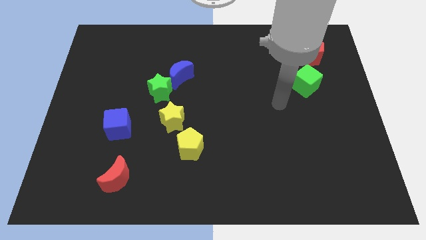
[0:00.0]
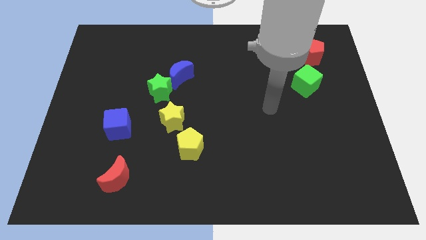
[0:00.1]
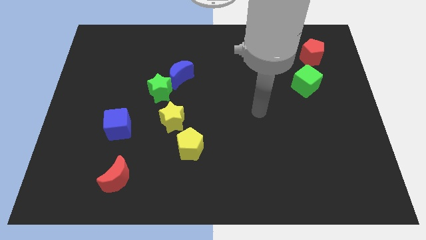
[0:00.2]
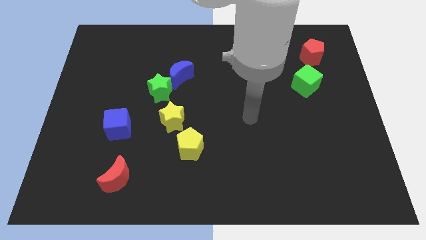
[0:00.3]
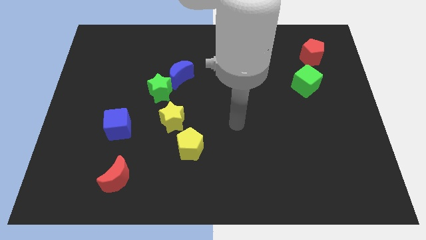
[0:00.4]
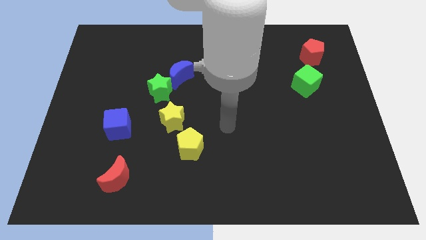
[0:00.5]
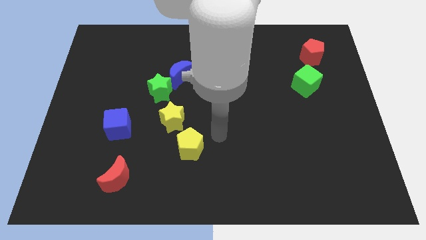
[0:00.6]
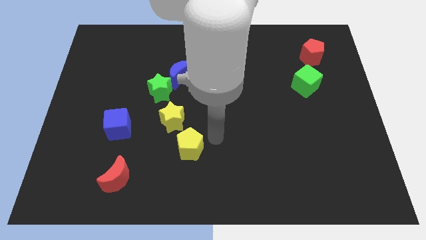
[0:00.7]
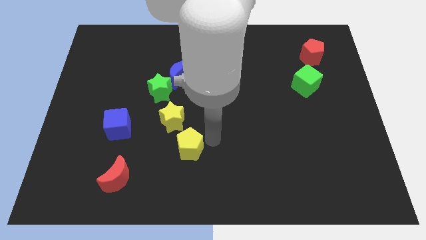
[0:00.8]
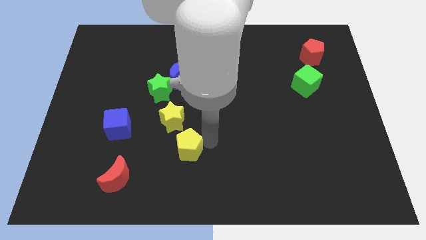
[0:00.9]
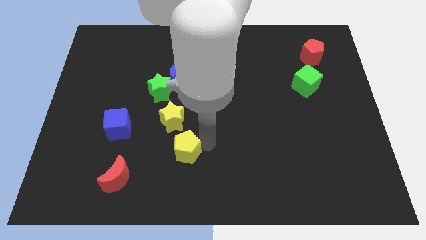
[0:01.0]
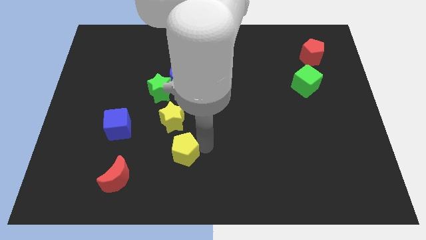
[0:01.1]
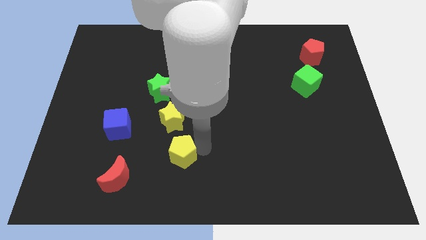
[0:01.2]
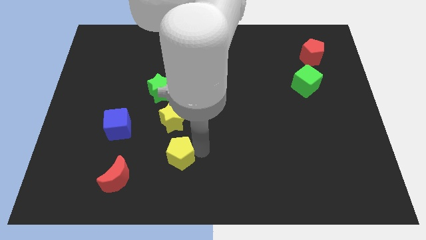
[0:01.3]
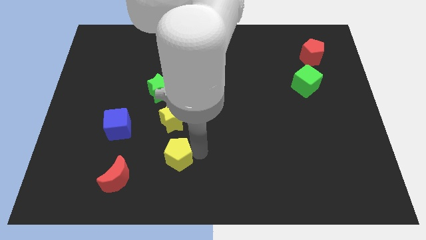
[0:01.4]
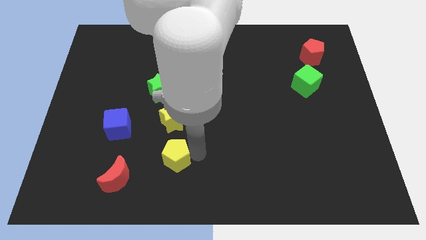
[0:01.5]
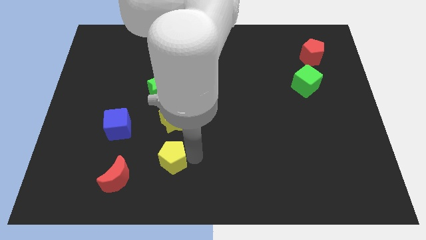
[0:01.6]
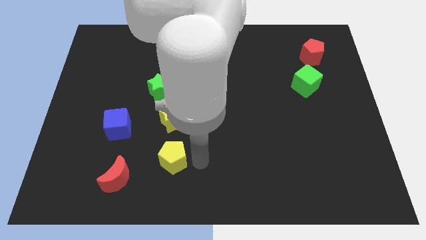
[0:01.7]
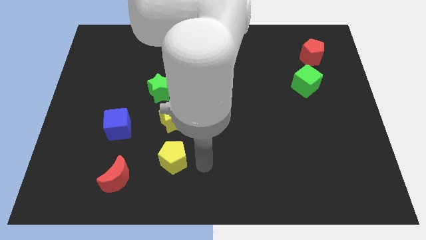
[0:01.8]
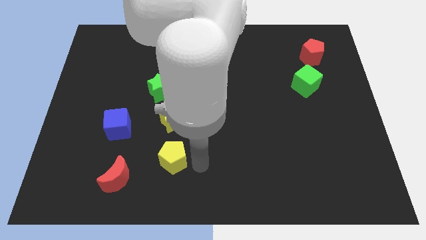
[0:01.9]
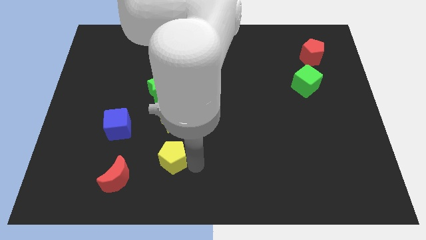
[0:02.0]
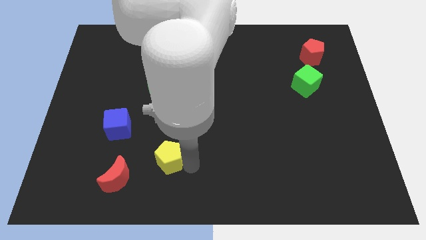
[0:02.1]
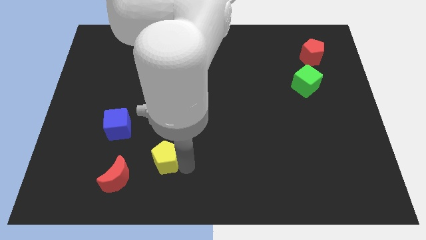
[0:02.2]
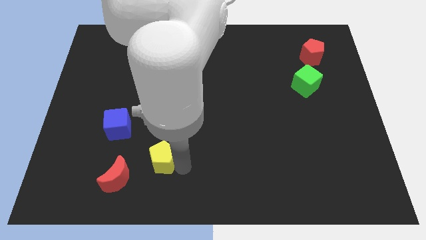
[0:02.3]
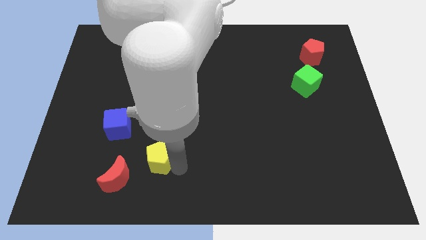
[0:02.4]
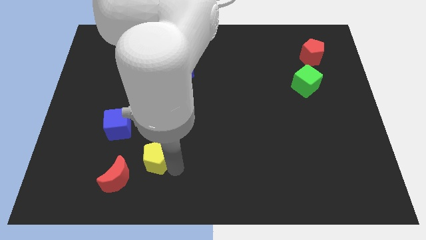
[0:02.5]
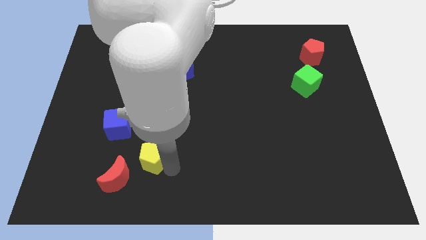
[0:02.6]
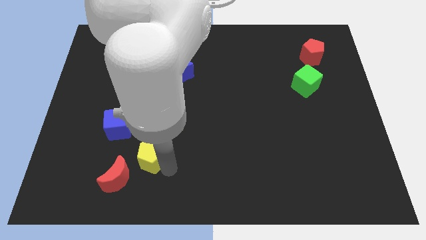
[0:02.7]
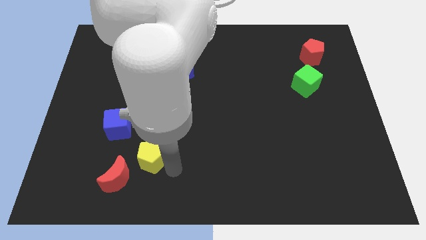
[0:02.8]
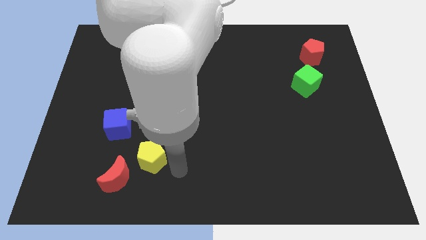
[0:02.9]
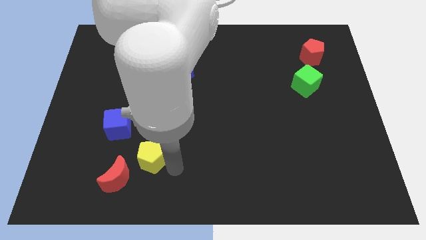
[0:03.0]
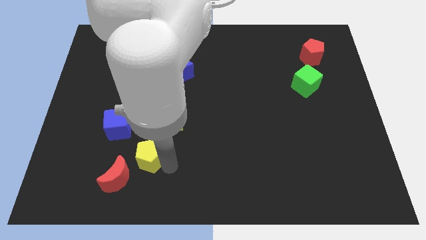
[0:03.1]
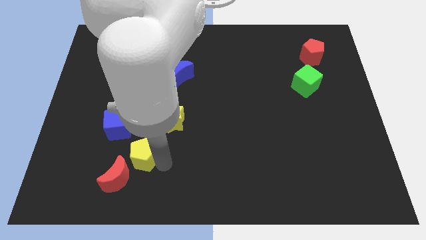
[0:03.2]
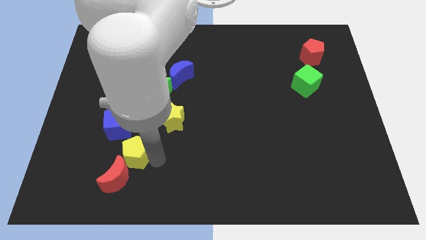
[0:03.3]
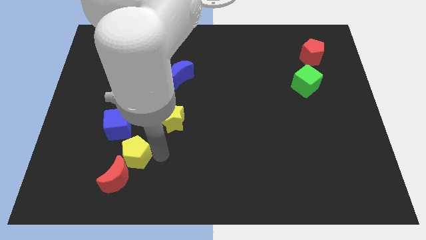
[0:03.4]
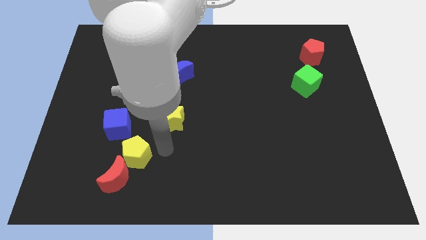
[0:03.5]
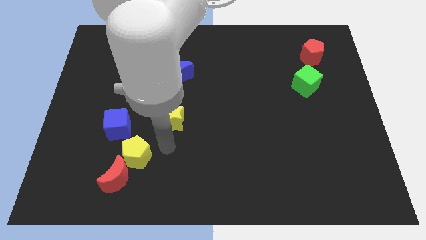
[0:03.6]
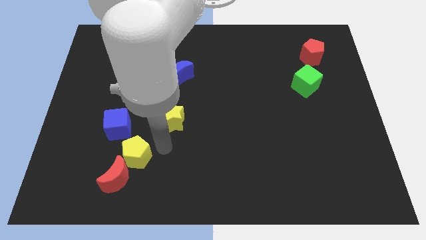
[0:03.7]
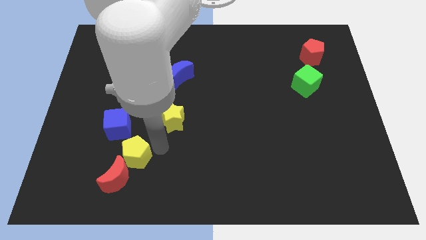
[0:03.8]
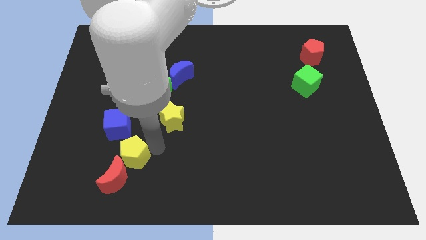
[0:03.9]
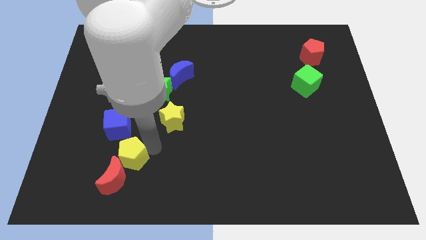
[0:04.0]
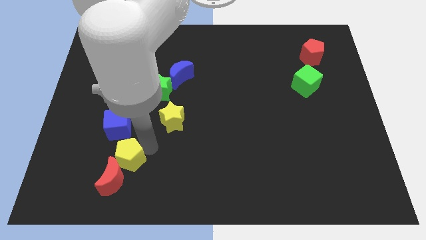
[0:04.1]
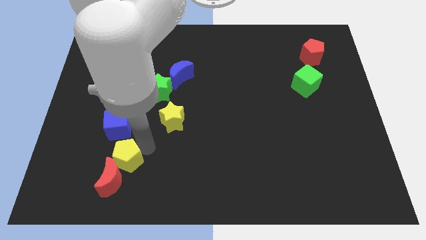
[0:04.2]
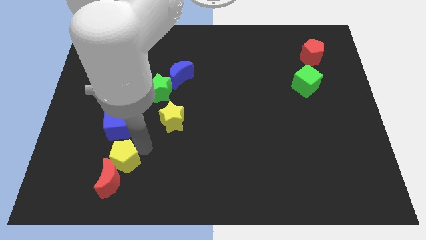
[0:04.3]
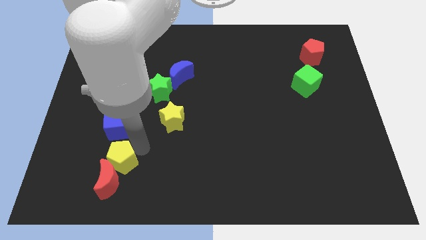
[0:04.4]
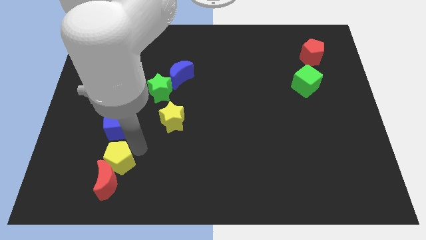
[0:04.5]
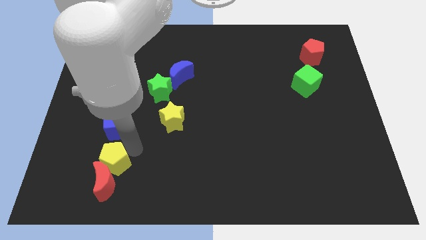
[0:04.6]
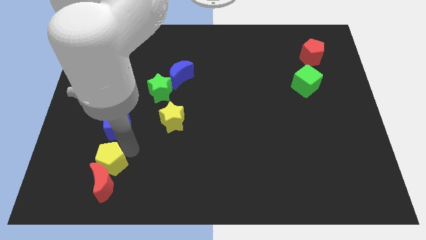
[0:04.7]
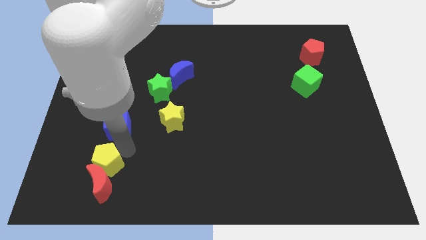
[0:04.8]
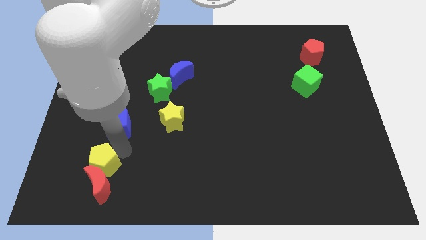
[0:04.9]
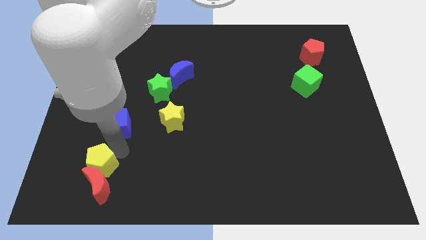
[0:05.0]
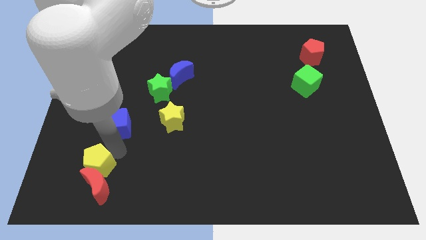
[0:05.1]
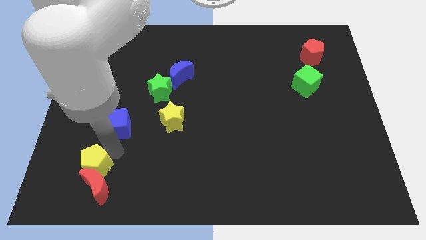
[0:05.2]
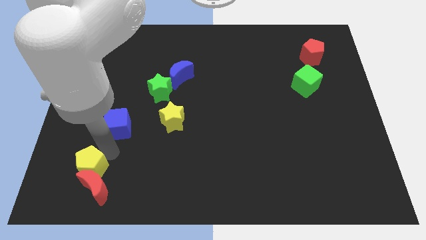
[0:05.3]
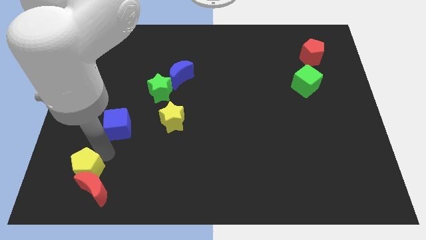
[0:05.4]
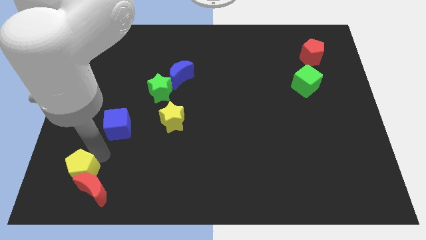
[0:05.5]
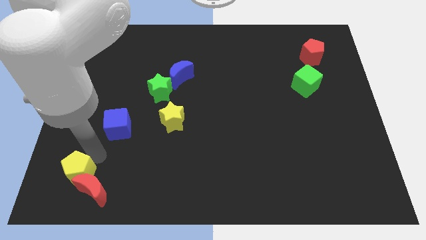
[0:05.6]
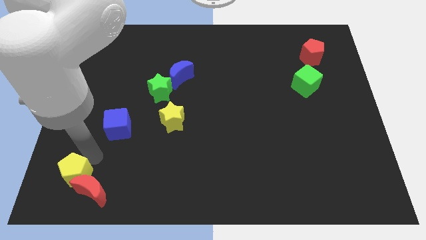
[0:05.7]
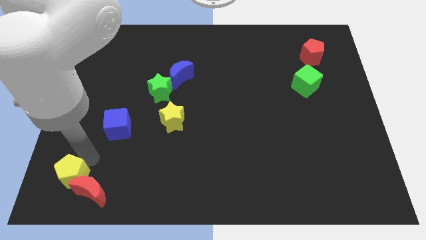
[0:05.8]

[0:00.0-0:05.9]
put the yellow pentagon to the bottom left of the board

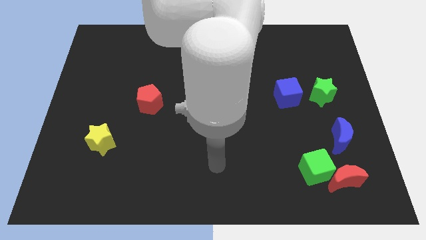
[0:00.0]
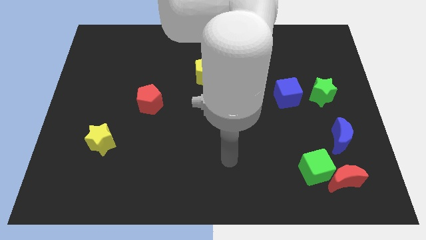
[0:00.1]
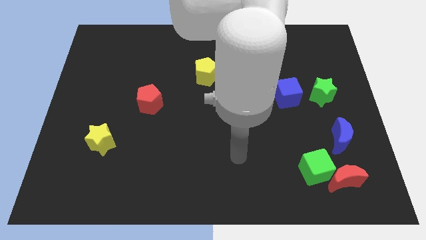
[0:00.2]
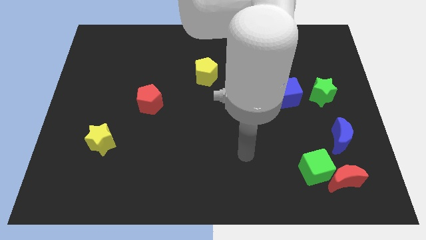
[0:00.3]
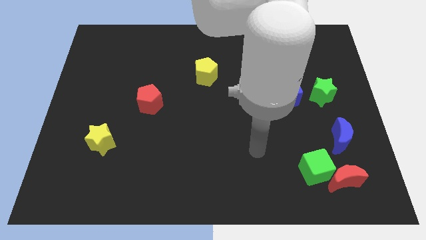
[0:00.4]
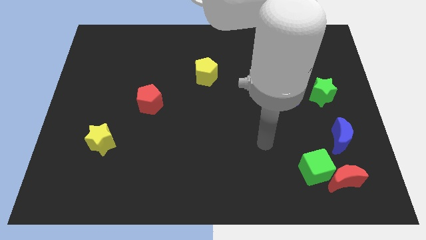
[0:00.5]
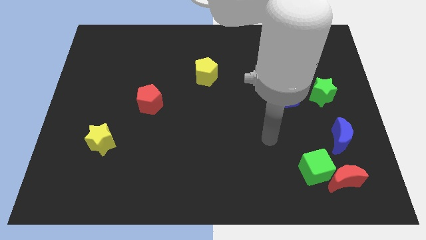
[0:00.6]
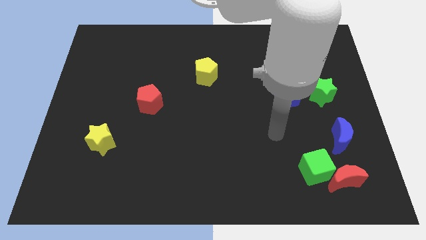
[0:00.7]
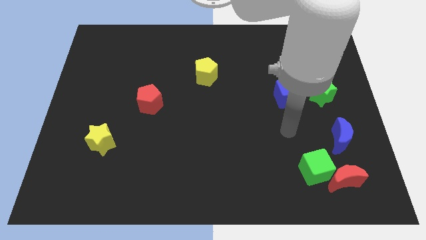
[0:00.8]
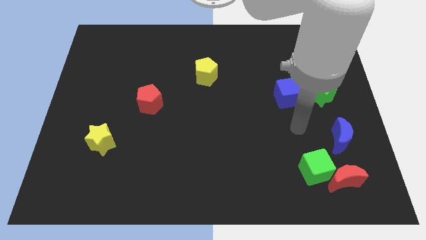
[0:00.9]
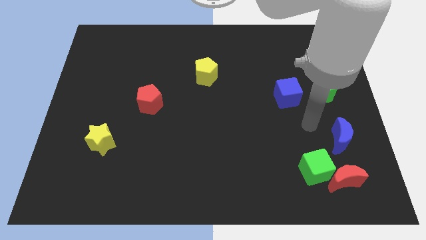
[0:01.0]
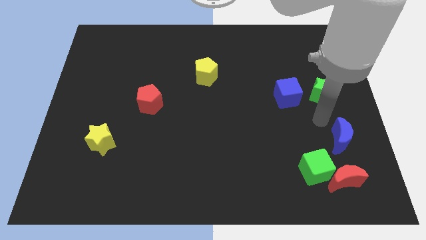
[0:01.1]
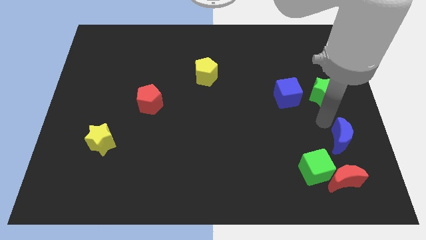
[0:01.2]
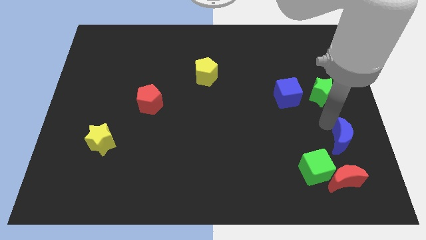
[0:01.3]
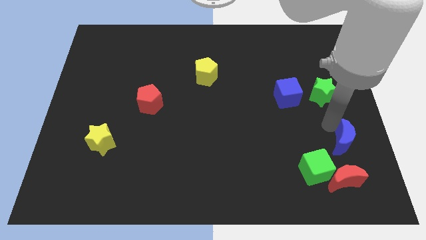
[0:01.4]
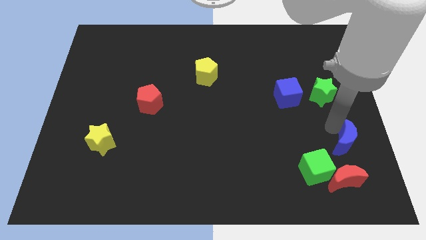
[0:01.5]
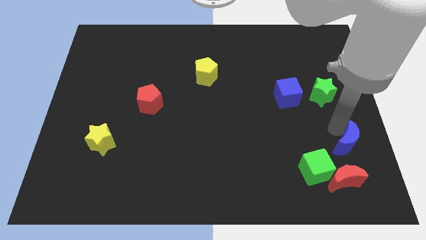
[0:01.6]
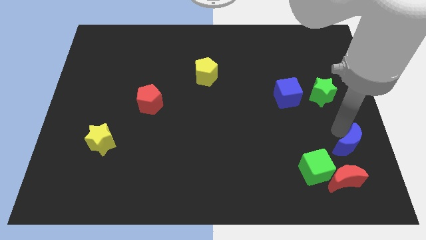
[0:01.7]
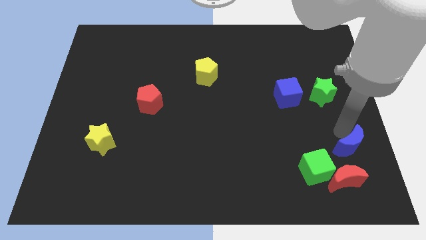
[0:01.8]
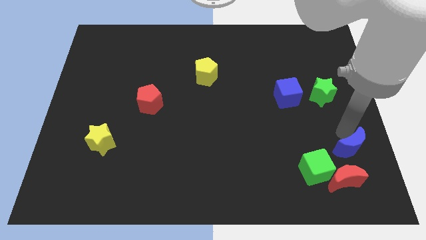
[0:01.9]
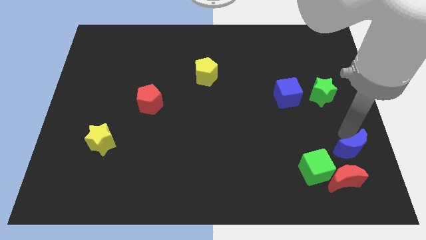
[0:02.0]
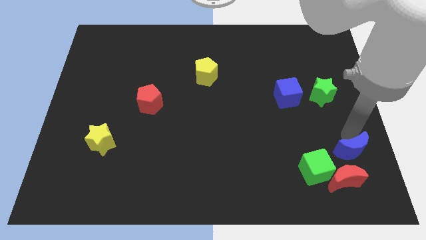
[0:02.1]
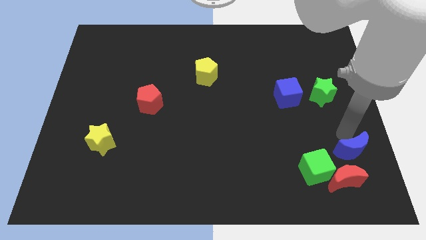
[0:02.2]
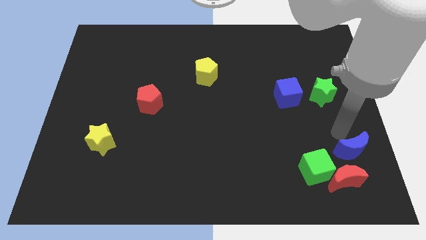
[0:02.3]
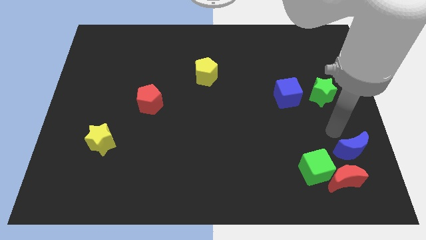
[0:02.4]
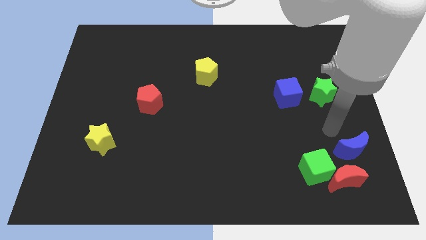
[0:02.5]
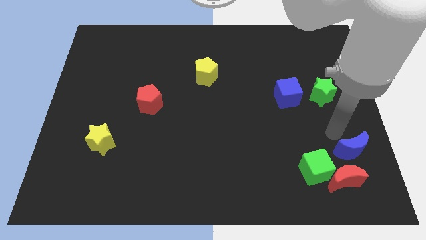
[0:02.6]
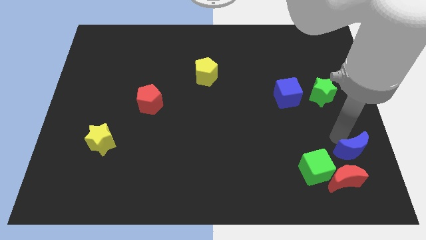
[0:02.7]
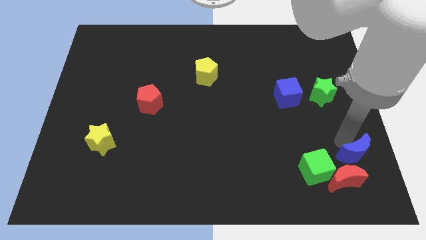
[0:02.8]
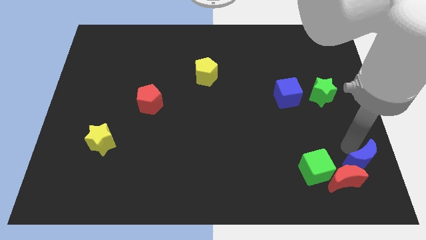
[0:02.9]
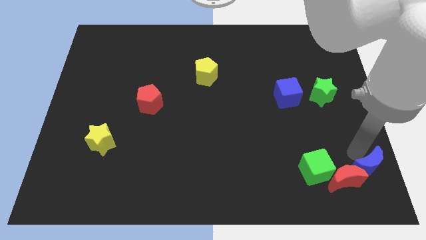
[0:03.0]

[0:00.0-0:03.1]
move the blue moon to the lower right corner
